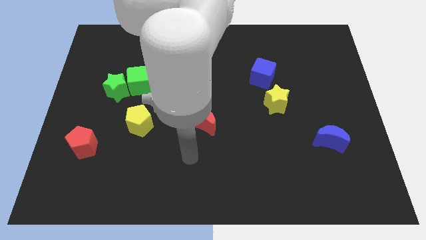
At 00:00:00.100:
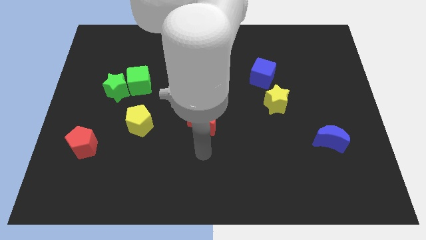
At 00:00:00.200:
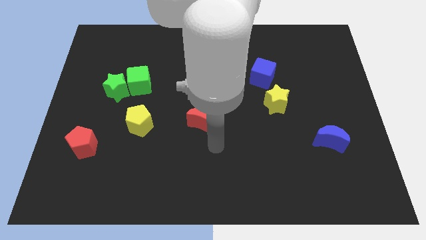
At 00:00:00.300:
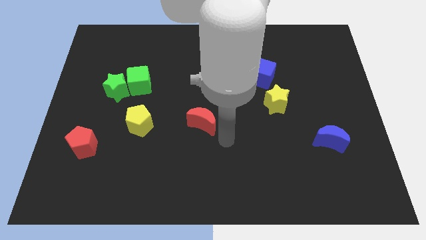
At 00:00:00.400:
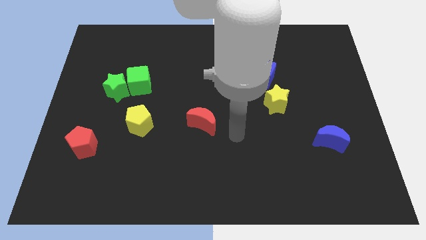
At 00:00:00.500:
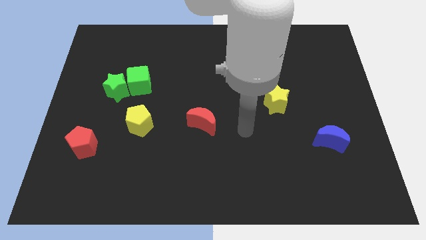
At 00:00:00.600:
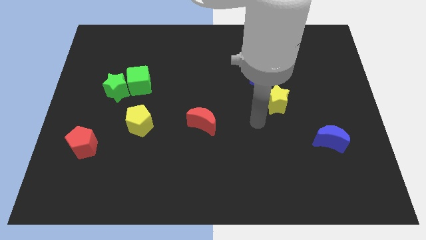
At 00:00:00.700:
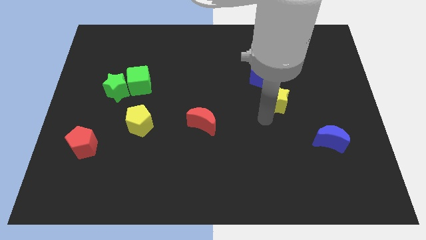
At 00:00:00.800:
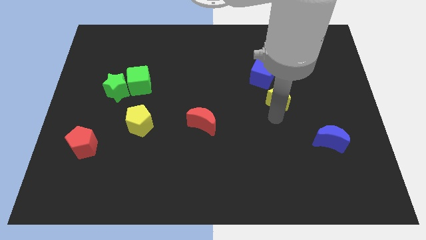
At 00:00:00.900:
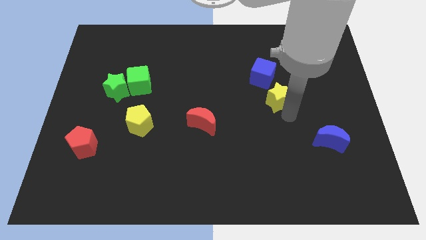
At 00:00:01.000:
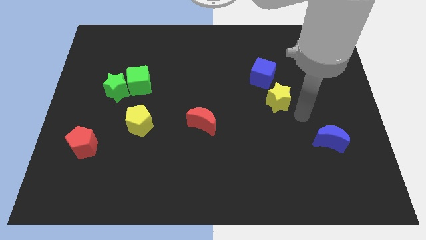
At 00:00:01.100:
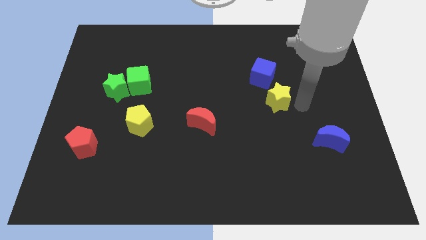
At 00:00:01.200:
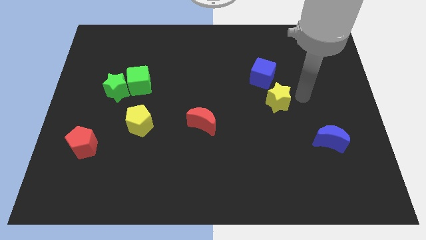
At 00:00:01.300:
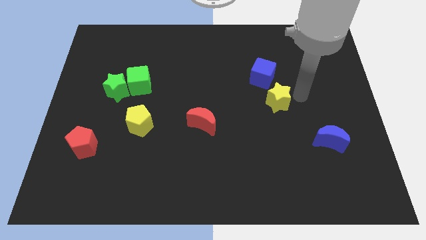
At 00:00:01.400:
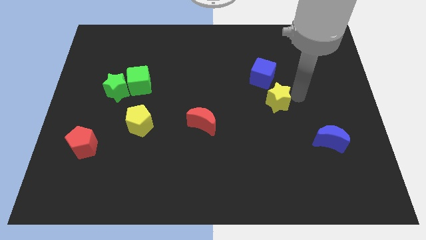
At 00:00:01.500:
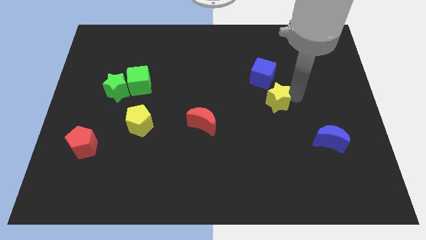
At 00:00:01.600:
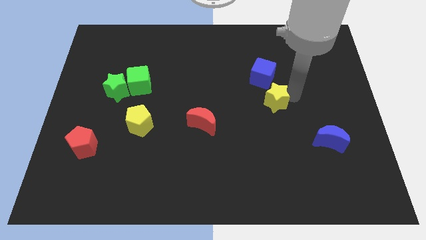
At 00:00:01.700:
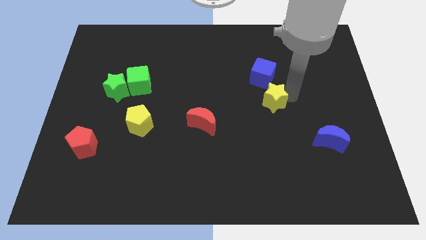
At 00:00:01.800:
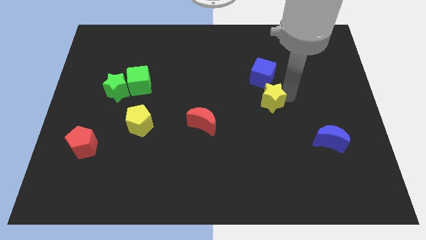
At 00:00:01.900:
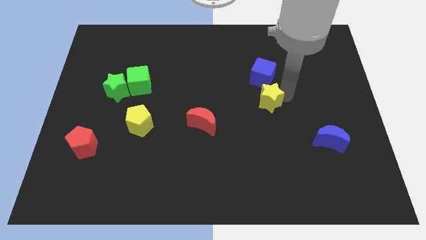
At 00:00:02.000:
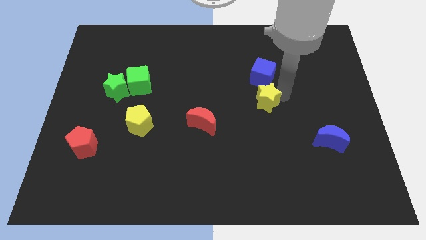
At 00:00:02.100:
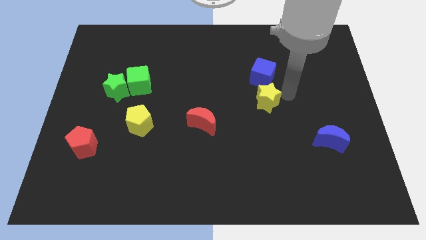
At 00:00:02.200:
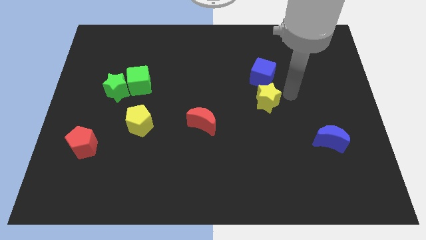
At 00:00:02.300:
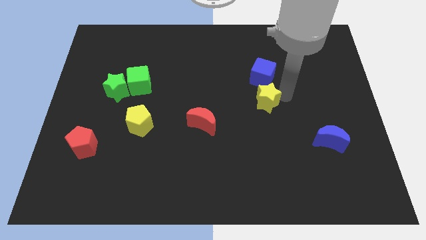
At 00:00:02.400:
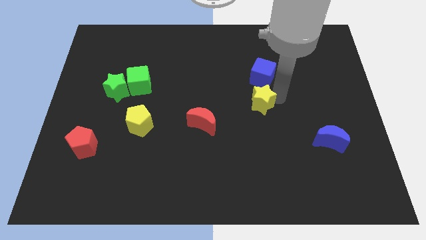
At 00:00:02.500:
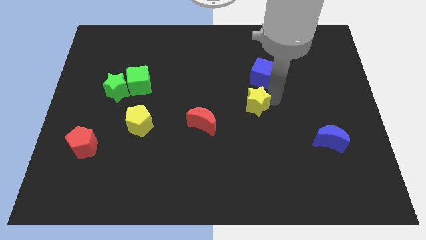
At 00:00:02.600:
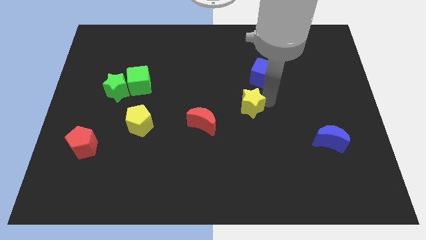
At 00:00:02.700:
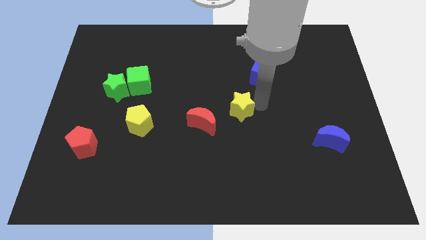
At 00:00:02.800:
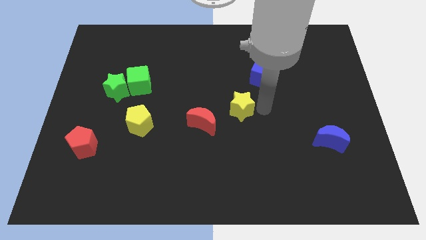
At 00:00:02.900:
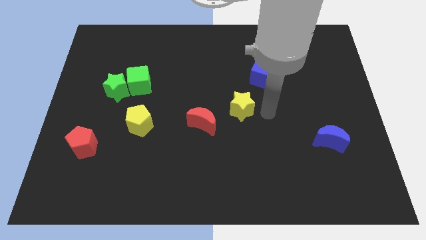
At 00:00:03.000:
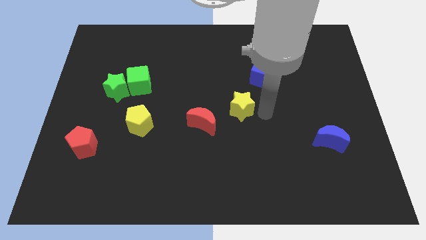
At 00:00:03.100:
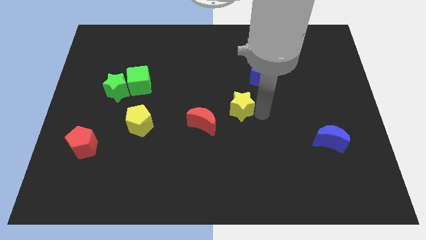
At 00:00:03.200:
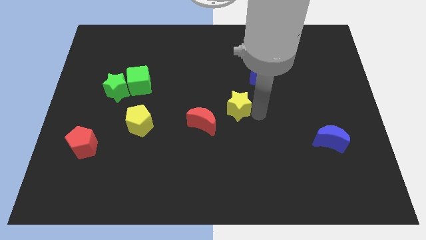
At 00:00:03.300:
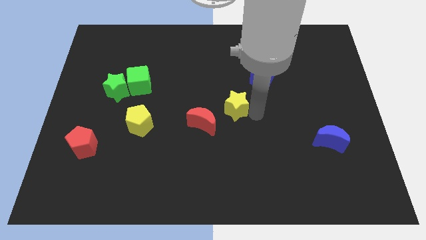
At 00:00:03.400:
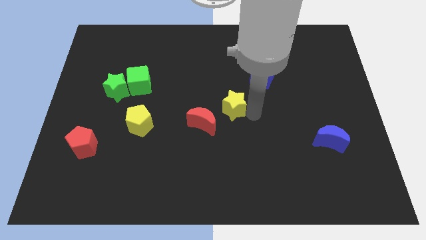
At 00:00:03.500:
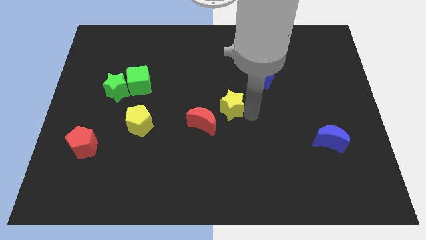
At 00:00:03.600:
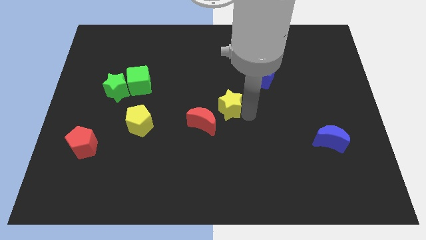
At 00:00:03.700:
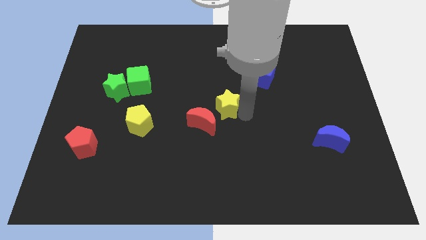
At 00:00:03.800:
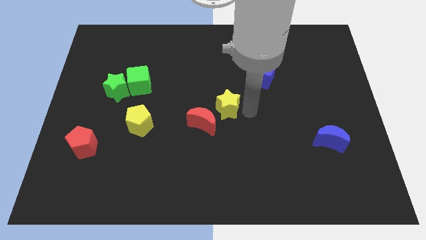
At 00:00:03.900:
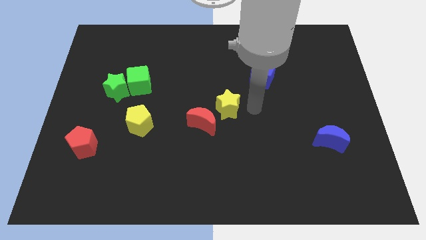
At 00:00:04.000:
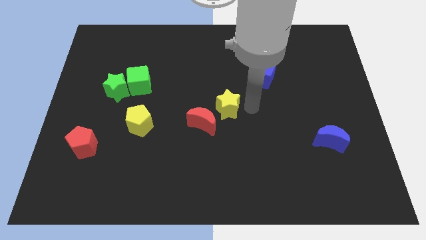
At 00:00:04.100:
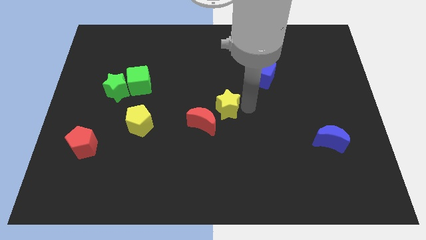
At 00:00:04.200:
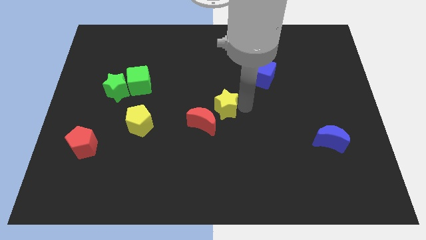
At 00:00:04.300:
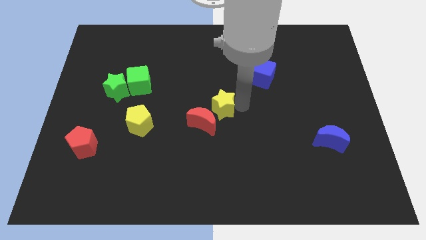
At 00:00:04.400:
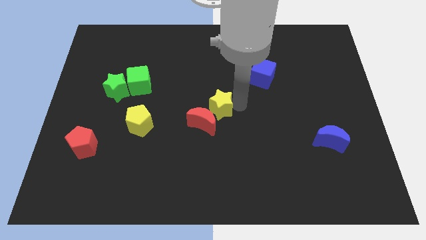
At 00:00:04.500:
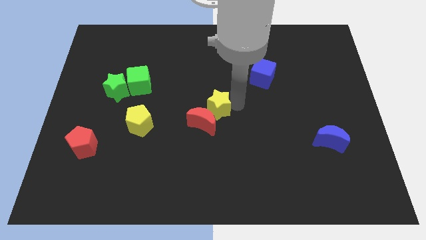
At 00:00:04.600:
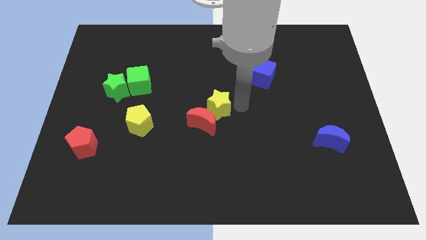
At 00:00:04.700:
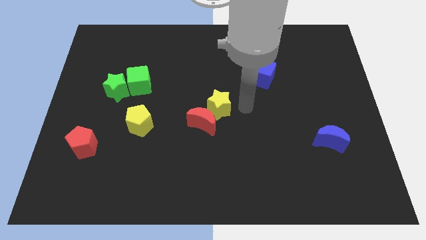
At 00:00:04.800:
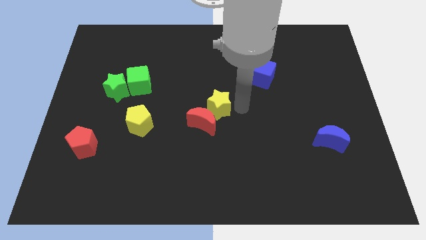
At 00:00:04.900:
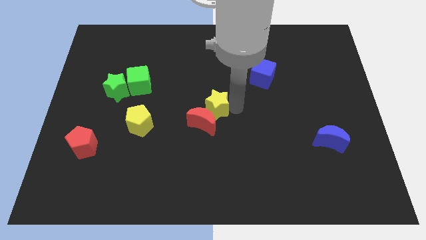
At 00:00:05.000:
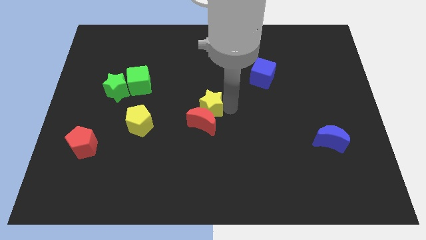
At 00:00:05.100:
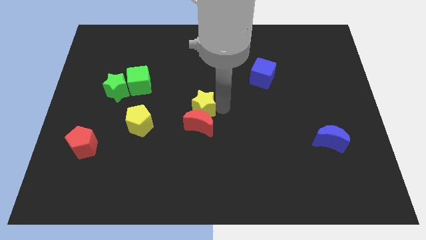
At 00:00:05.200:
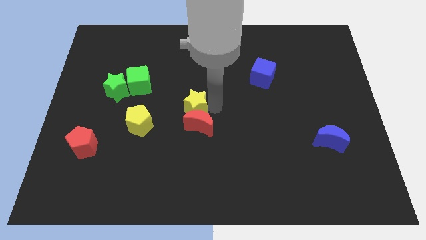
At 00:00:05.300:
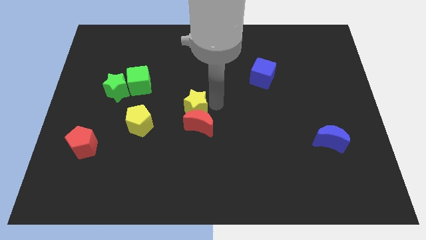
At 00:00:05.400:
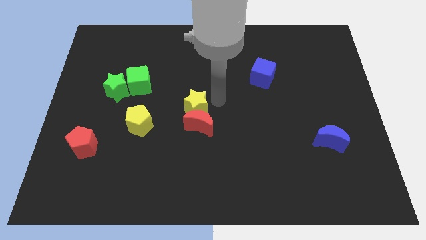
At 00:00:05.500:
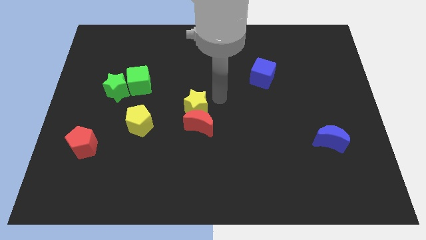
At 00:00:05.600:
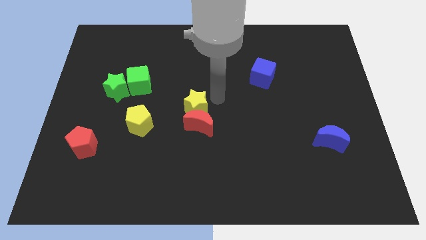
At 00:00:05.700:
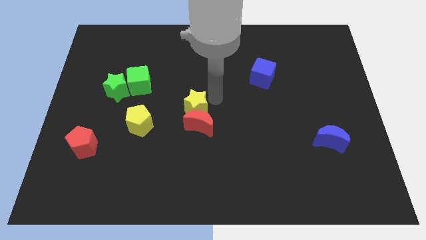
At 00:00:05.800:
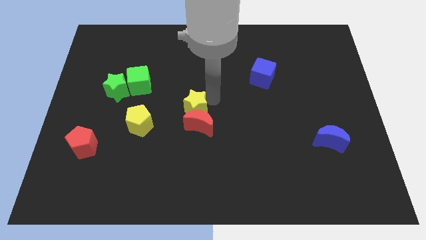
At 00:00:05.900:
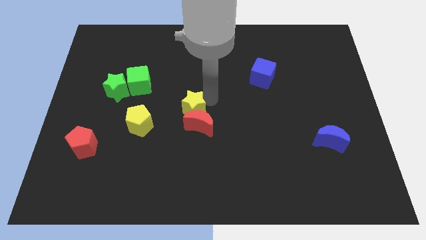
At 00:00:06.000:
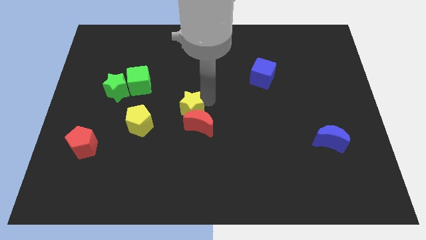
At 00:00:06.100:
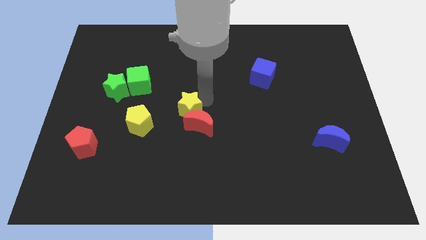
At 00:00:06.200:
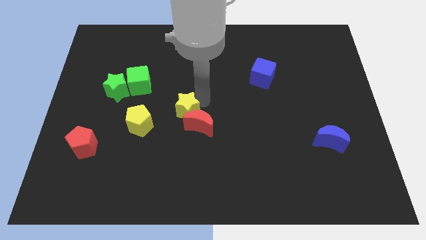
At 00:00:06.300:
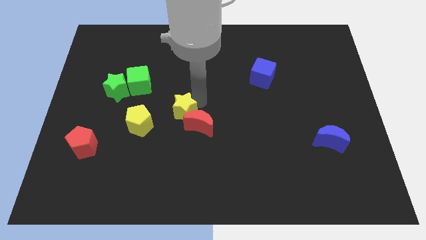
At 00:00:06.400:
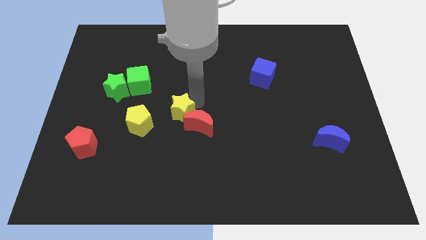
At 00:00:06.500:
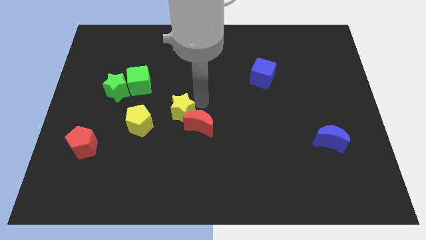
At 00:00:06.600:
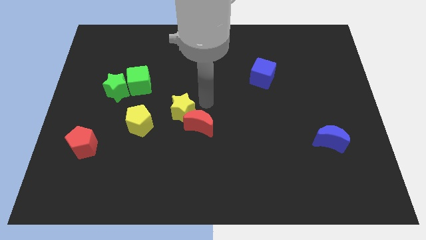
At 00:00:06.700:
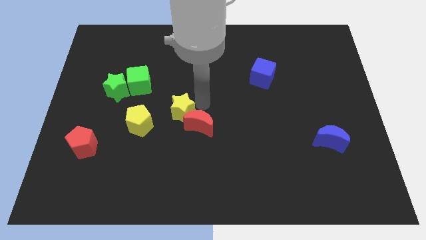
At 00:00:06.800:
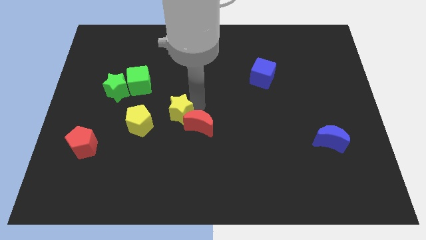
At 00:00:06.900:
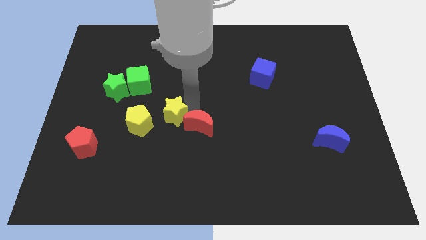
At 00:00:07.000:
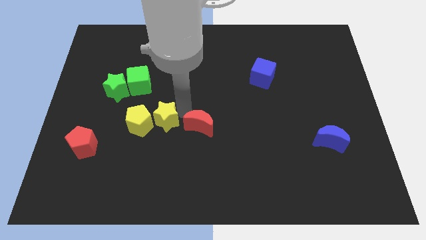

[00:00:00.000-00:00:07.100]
slide the yellow star to the yellow pentagon
